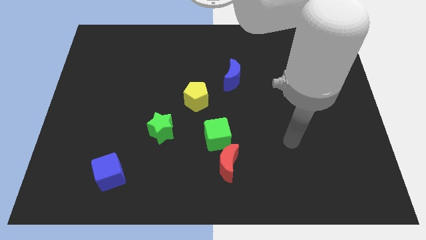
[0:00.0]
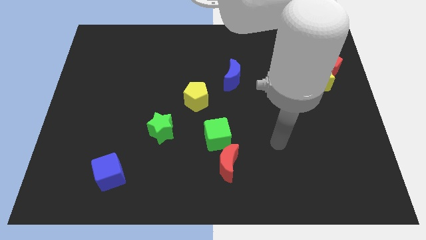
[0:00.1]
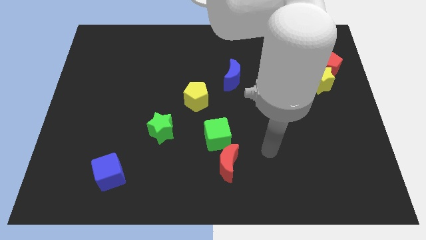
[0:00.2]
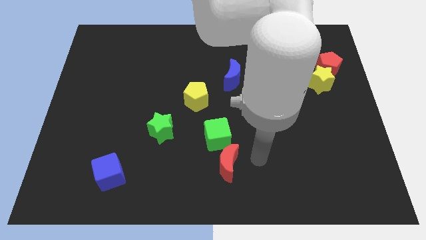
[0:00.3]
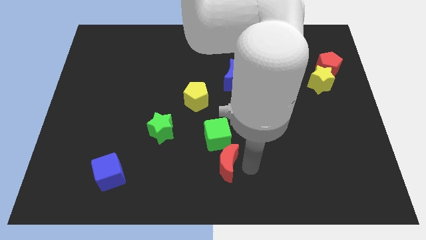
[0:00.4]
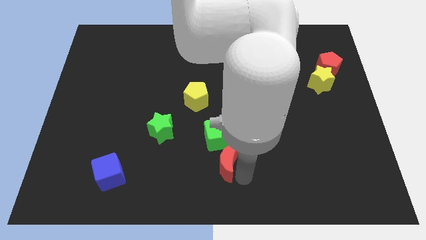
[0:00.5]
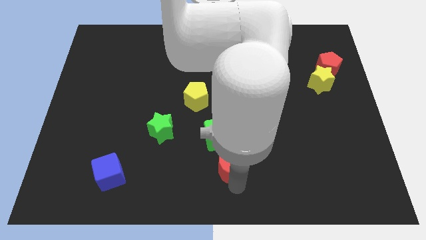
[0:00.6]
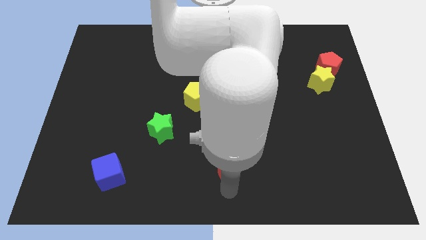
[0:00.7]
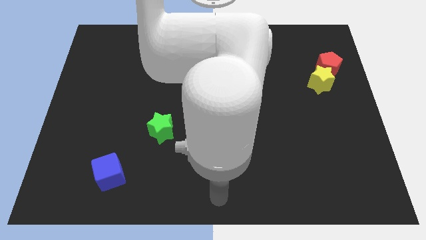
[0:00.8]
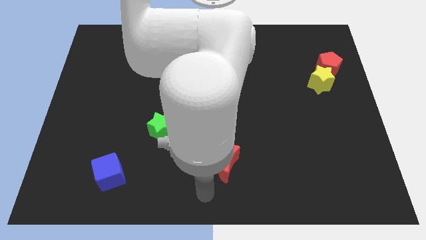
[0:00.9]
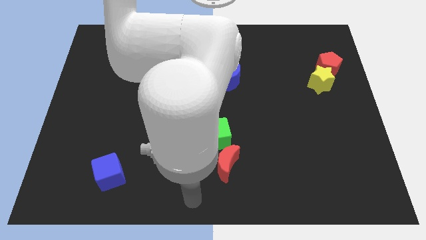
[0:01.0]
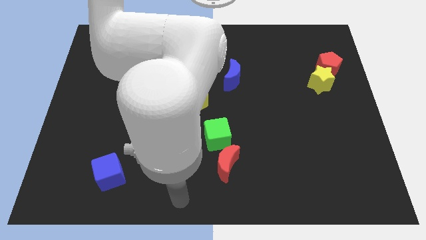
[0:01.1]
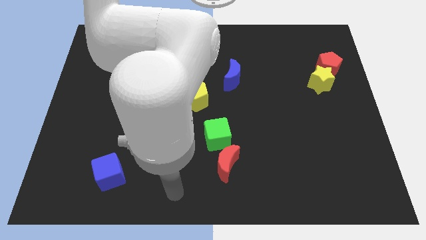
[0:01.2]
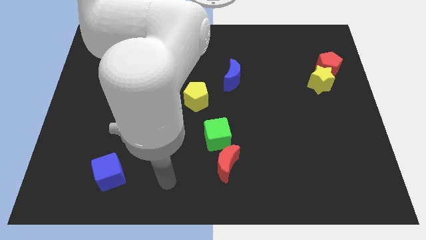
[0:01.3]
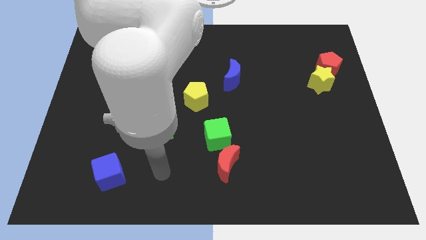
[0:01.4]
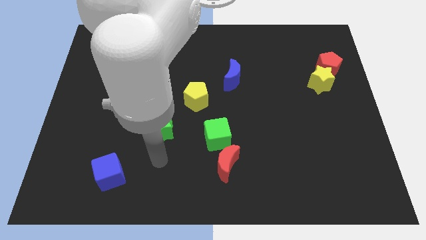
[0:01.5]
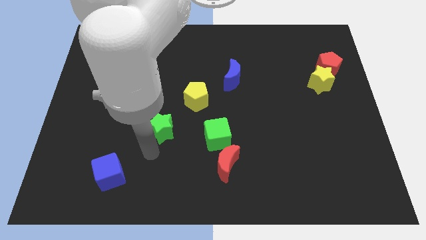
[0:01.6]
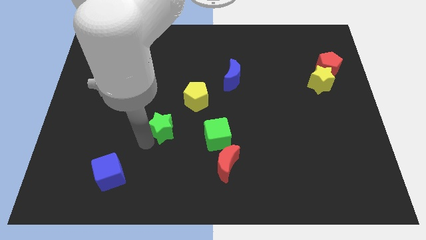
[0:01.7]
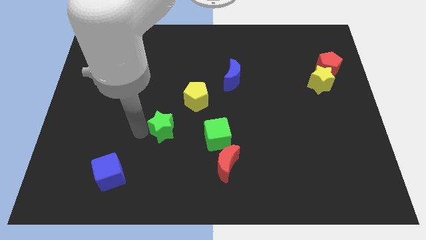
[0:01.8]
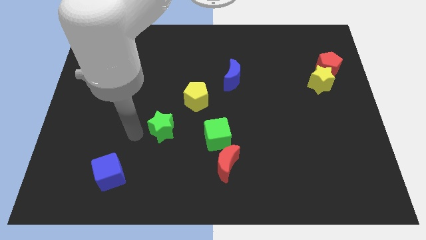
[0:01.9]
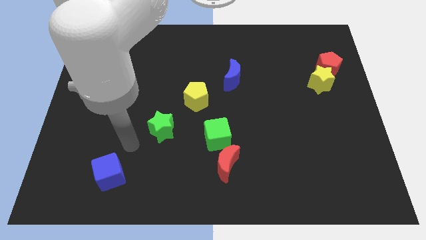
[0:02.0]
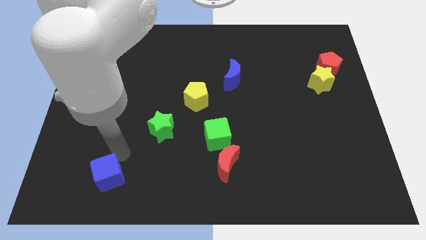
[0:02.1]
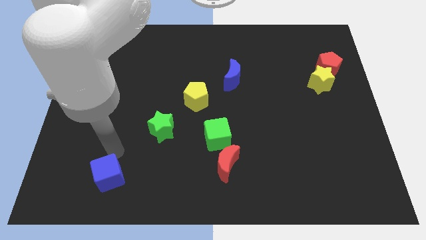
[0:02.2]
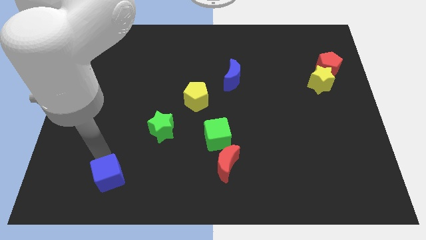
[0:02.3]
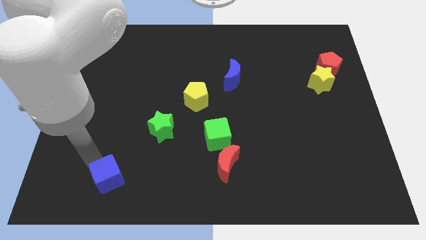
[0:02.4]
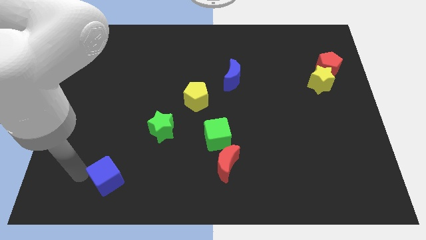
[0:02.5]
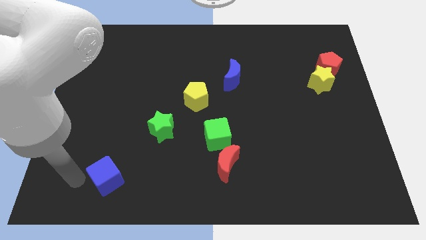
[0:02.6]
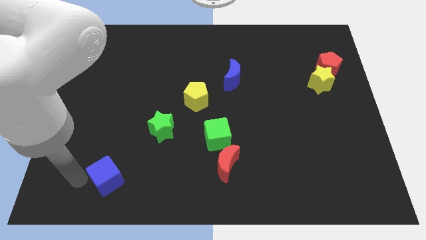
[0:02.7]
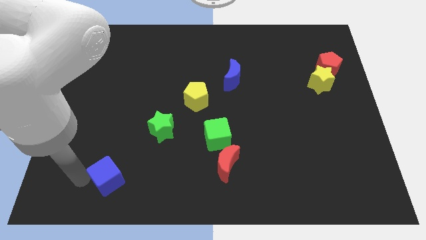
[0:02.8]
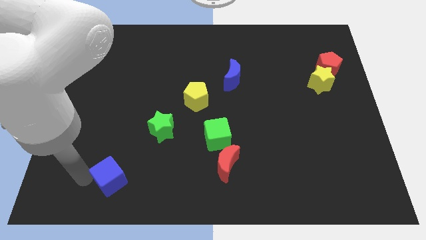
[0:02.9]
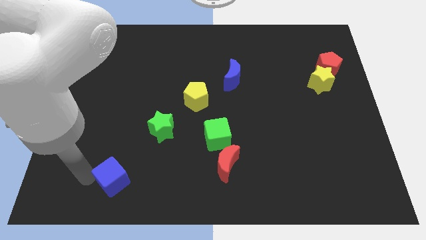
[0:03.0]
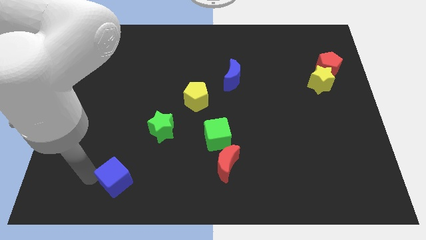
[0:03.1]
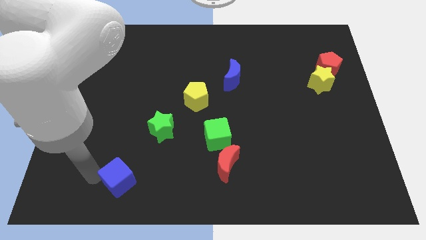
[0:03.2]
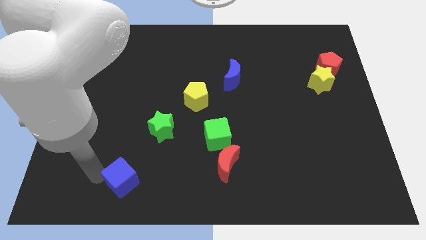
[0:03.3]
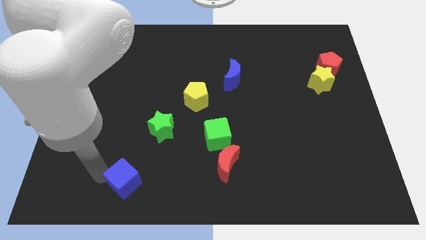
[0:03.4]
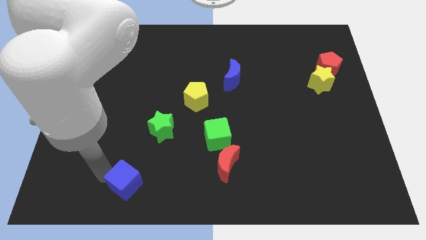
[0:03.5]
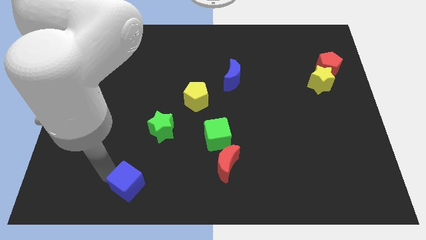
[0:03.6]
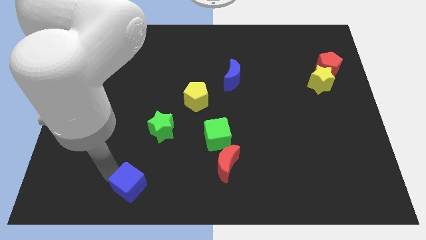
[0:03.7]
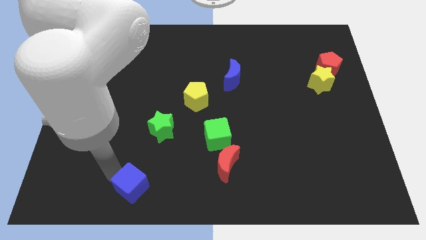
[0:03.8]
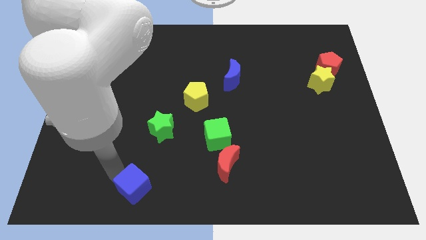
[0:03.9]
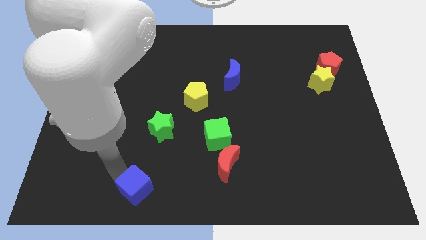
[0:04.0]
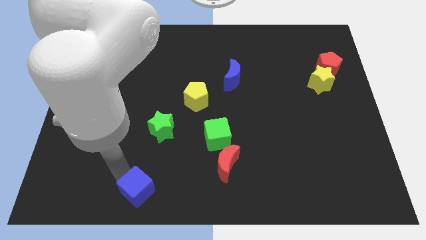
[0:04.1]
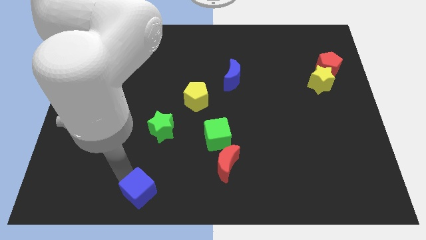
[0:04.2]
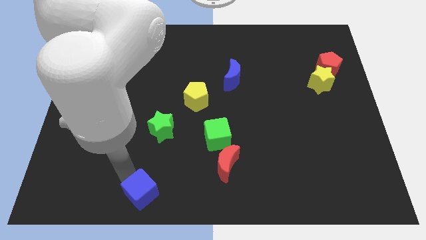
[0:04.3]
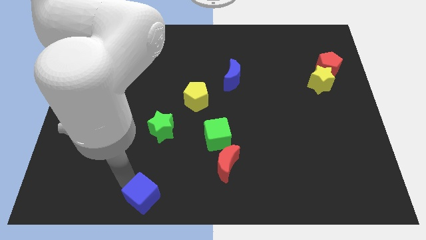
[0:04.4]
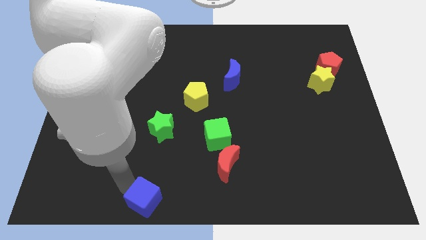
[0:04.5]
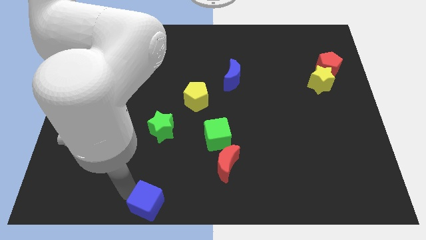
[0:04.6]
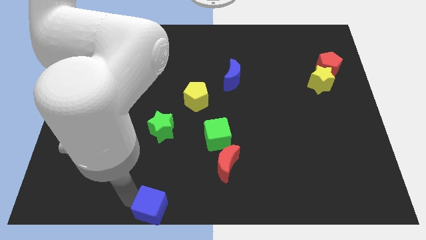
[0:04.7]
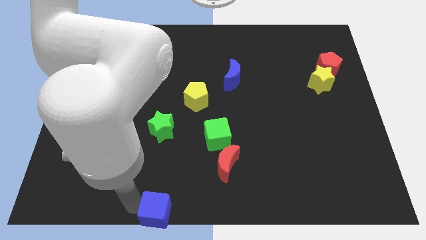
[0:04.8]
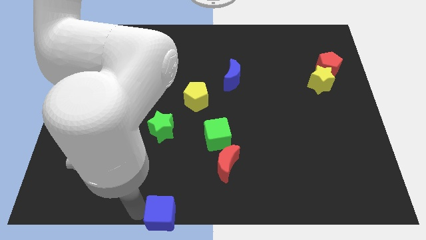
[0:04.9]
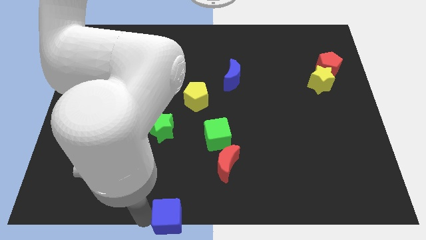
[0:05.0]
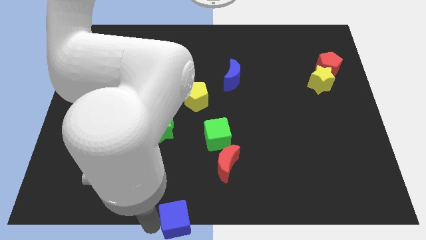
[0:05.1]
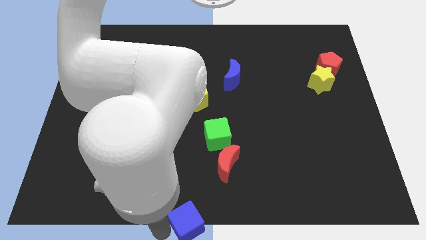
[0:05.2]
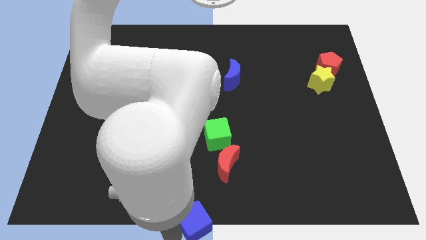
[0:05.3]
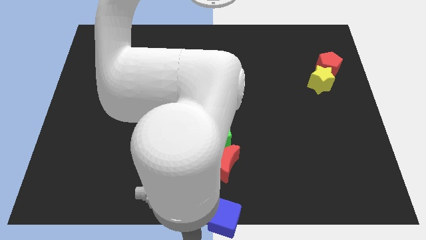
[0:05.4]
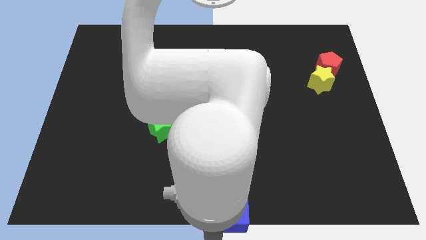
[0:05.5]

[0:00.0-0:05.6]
push the blue cube to the right

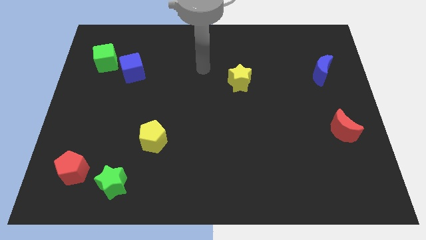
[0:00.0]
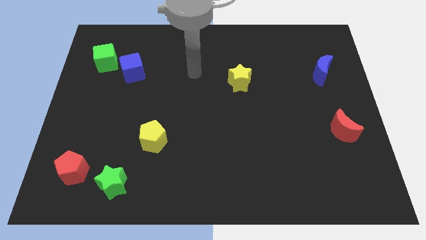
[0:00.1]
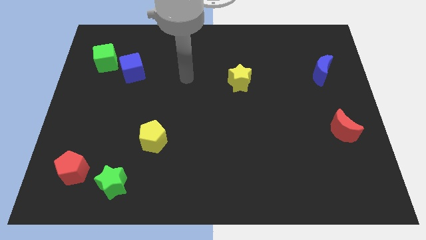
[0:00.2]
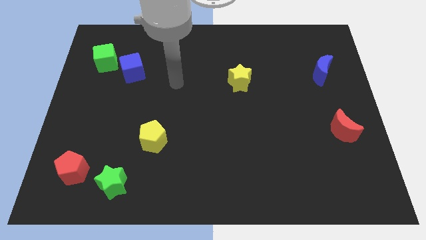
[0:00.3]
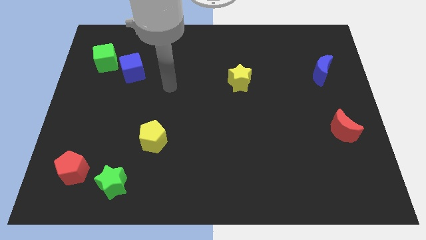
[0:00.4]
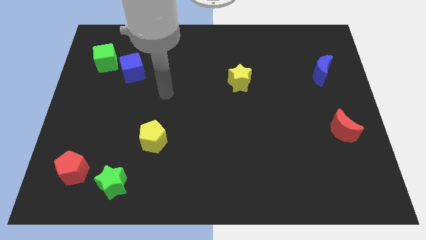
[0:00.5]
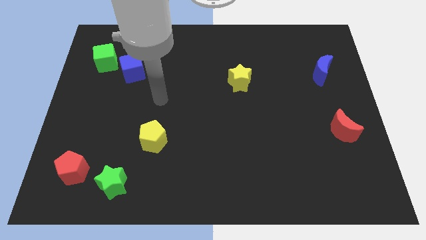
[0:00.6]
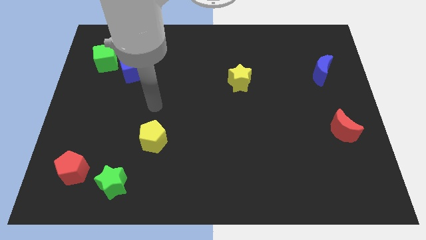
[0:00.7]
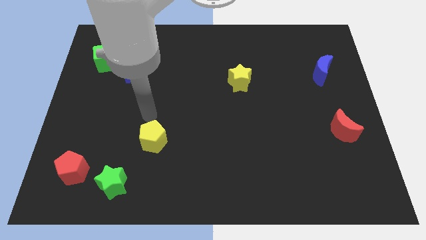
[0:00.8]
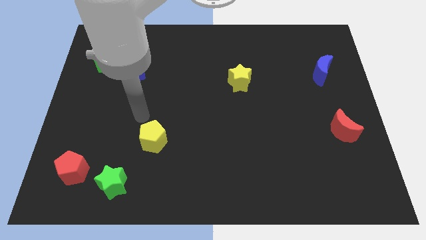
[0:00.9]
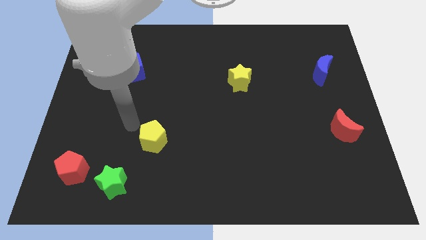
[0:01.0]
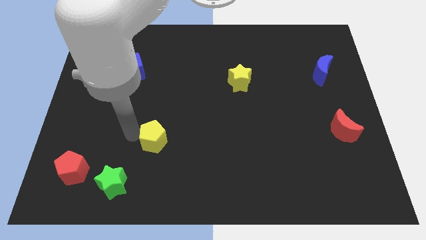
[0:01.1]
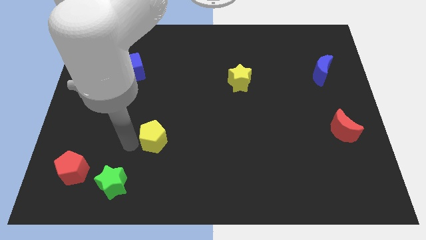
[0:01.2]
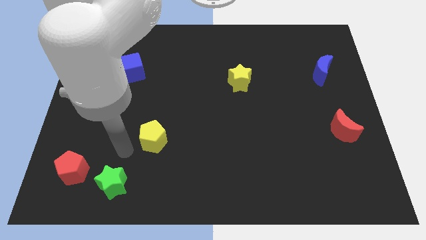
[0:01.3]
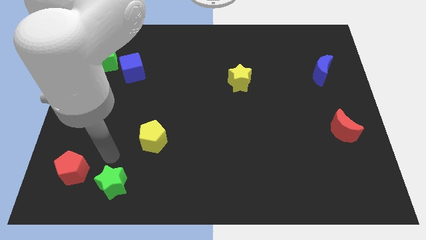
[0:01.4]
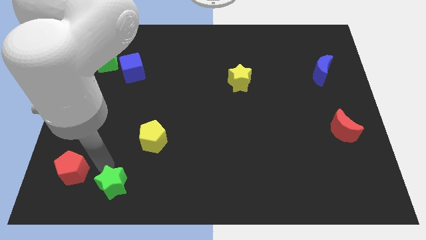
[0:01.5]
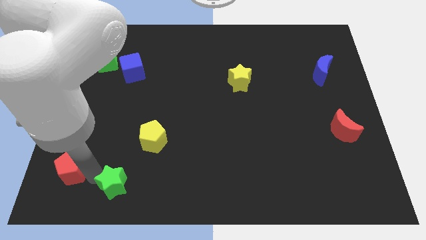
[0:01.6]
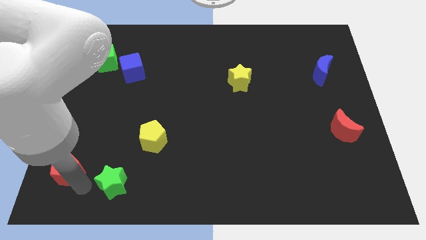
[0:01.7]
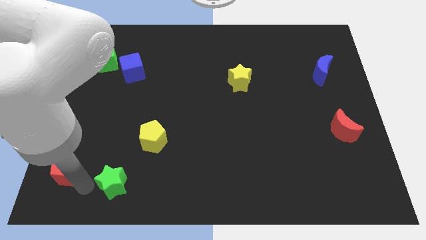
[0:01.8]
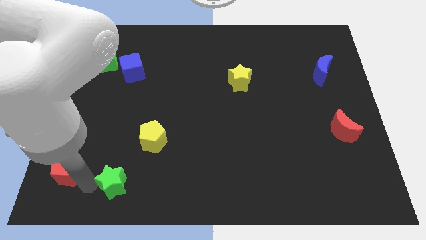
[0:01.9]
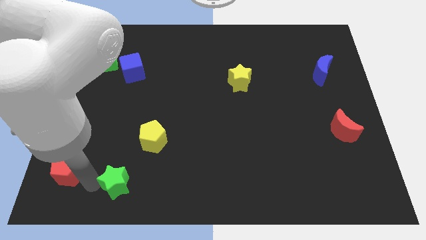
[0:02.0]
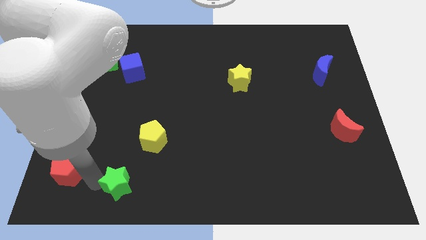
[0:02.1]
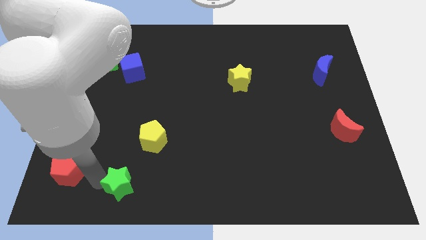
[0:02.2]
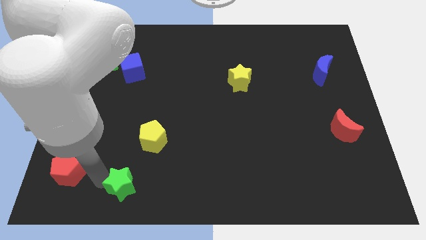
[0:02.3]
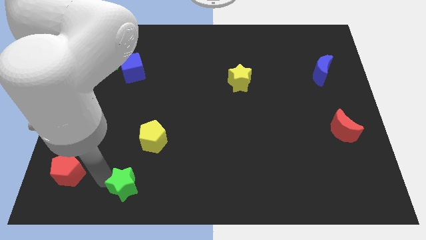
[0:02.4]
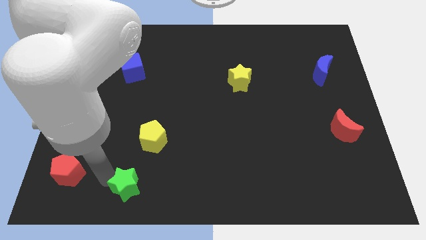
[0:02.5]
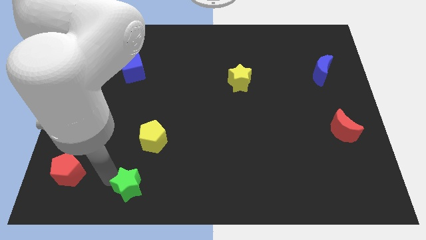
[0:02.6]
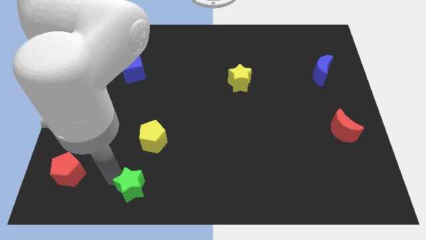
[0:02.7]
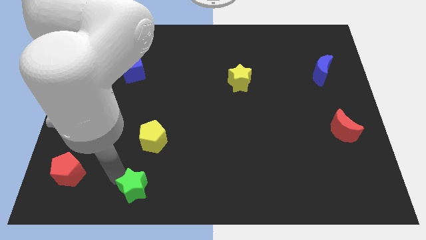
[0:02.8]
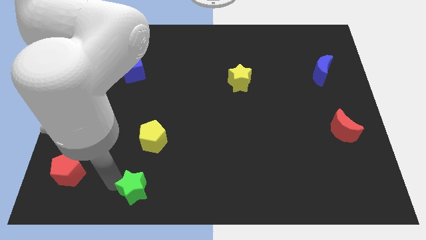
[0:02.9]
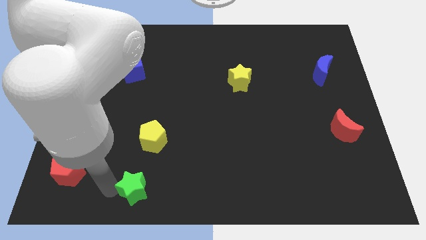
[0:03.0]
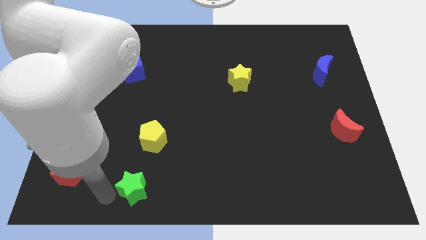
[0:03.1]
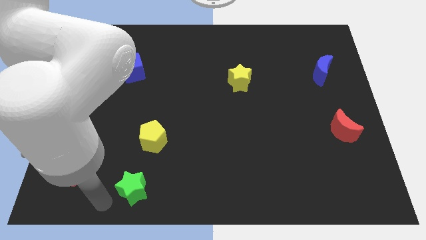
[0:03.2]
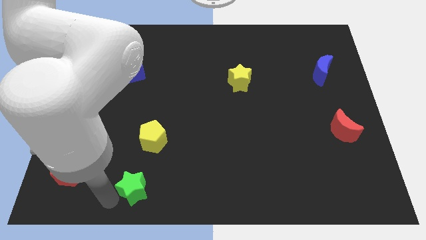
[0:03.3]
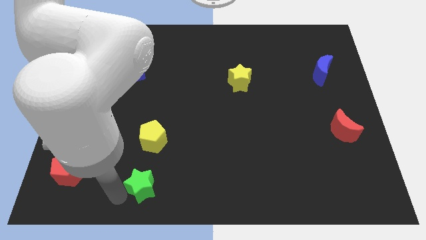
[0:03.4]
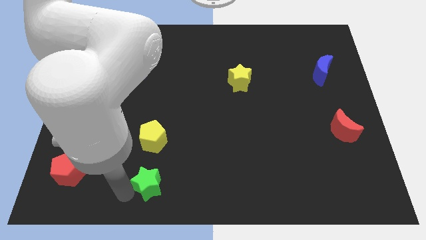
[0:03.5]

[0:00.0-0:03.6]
slightly move the green star to the right
